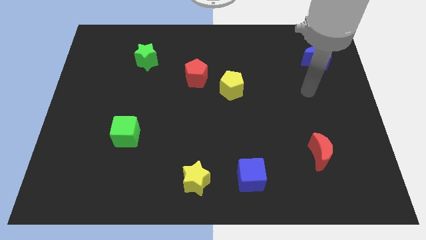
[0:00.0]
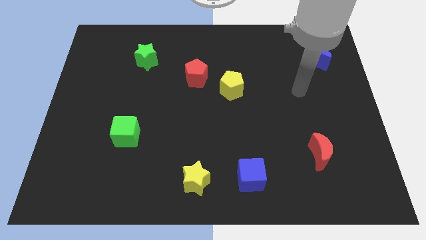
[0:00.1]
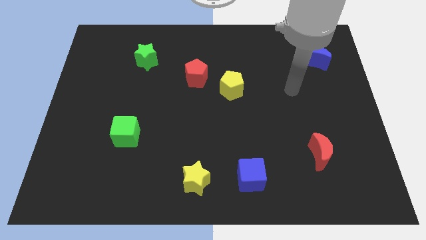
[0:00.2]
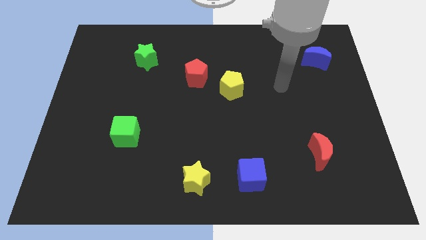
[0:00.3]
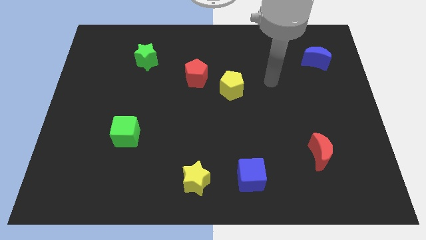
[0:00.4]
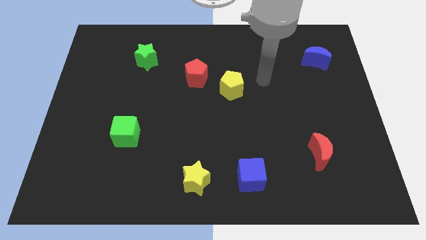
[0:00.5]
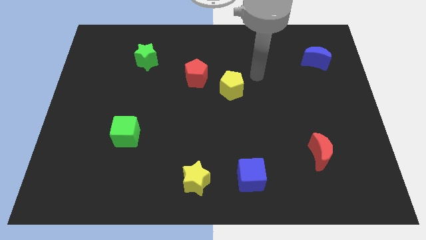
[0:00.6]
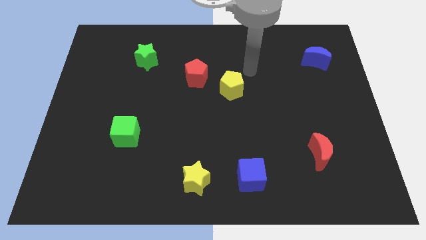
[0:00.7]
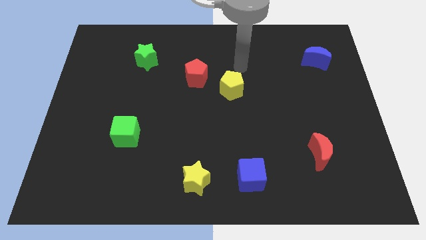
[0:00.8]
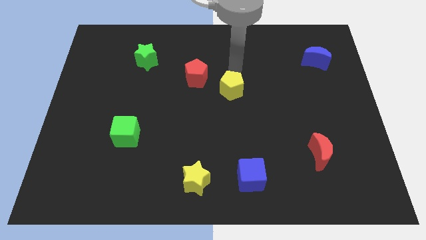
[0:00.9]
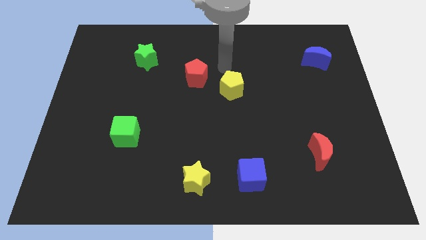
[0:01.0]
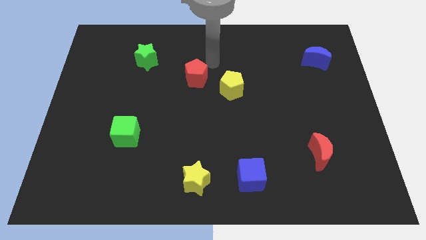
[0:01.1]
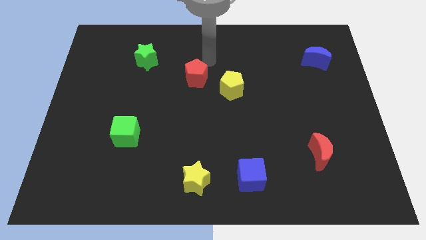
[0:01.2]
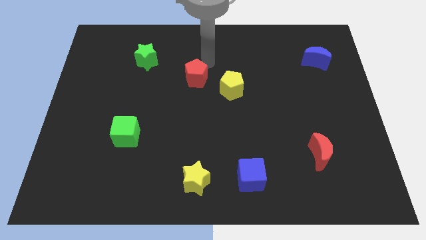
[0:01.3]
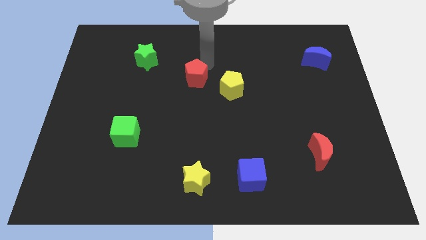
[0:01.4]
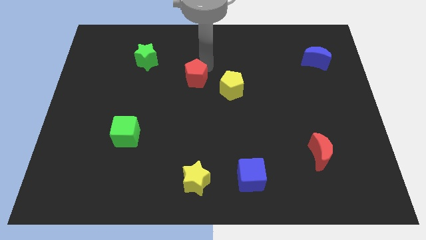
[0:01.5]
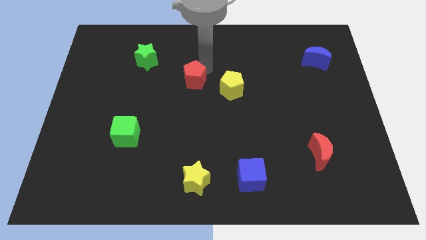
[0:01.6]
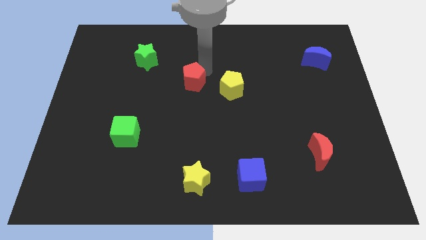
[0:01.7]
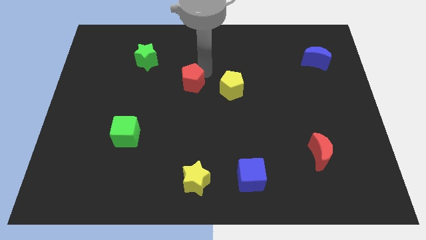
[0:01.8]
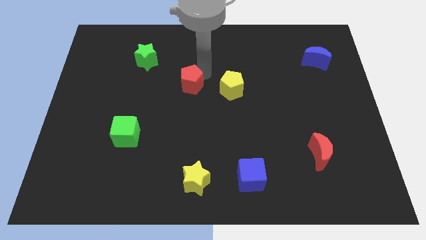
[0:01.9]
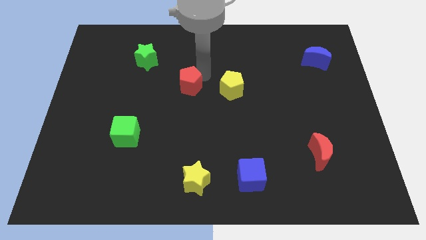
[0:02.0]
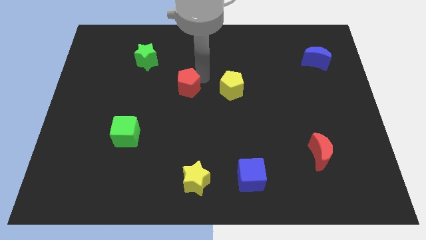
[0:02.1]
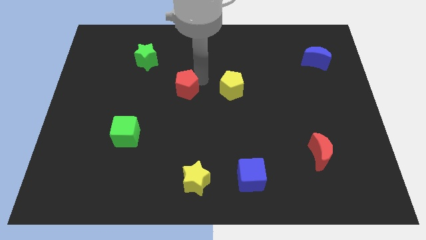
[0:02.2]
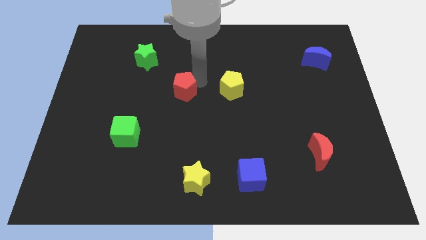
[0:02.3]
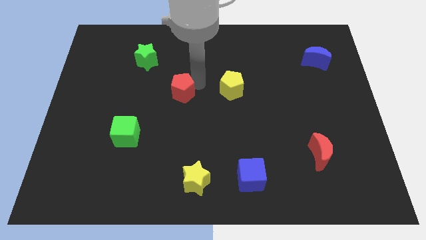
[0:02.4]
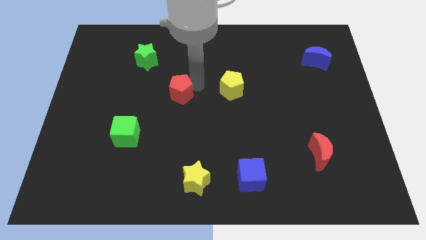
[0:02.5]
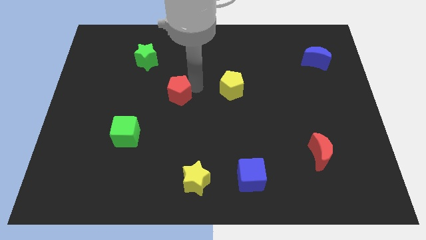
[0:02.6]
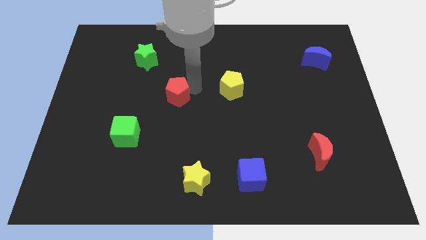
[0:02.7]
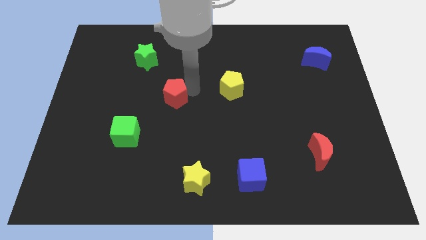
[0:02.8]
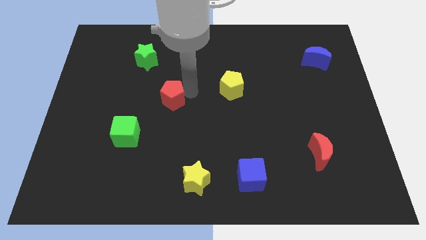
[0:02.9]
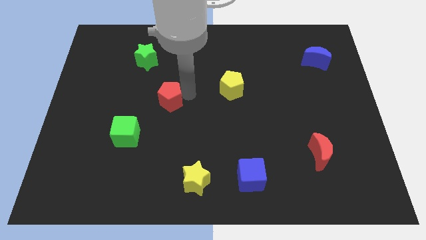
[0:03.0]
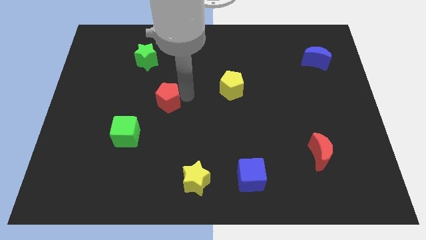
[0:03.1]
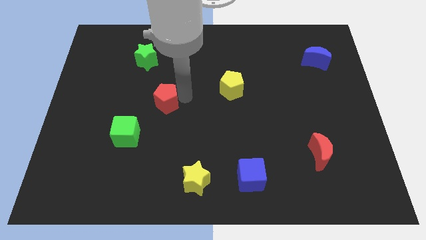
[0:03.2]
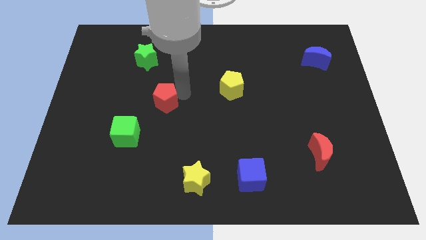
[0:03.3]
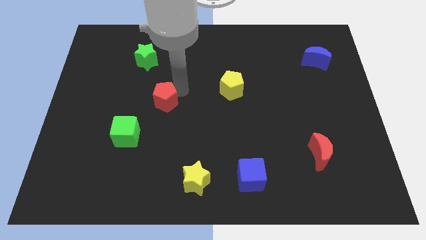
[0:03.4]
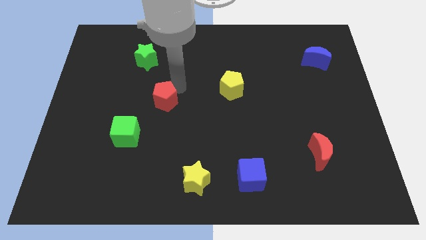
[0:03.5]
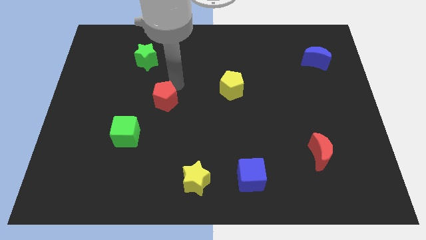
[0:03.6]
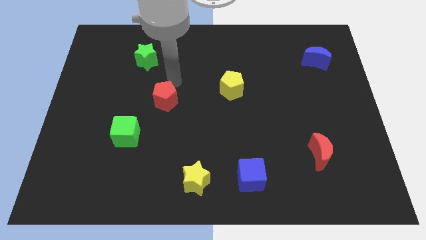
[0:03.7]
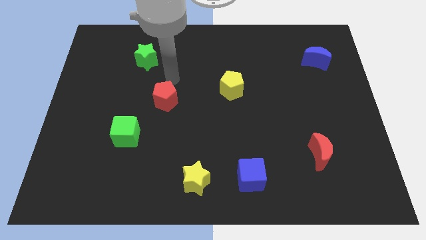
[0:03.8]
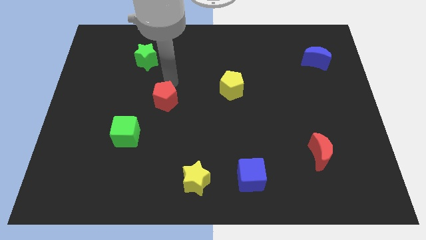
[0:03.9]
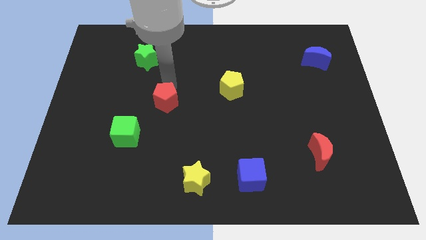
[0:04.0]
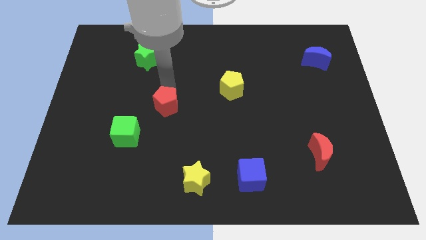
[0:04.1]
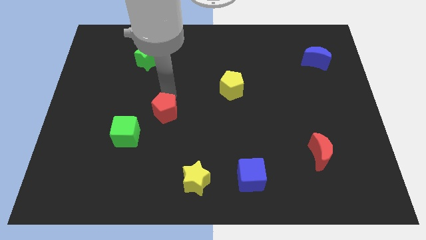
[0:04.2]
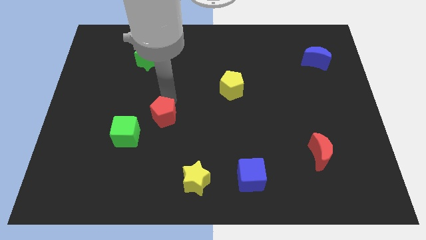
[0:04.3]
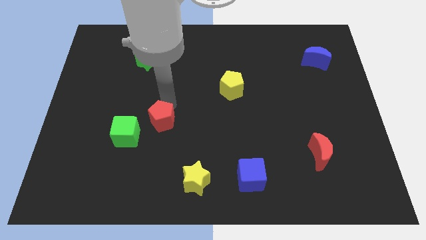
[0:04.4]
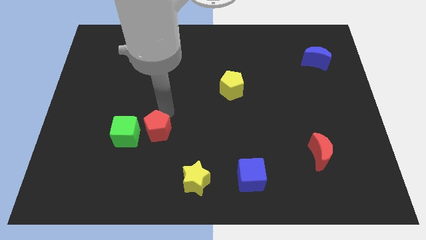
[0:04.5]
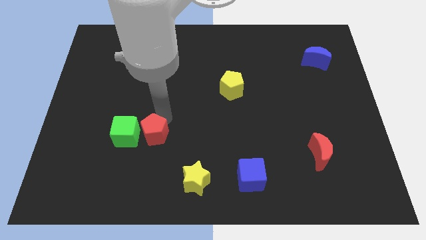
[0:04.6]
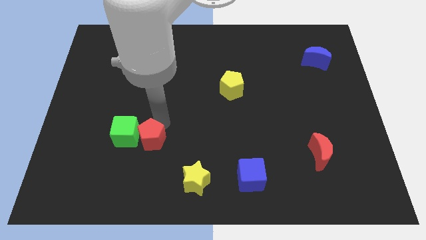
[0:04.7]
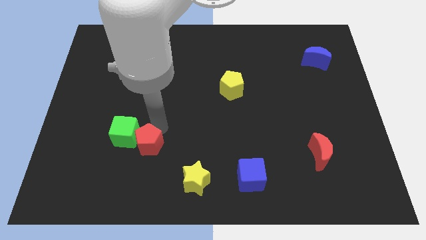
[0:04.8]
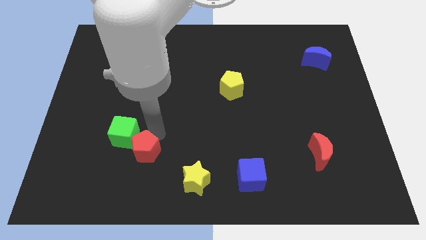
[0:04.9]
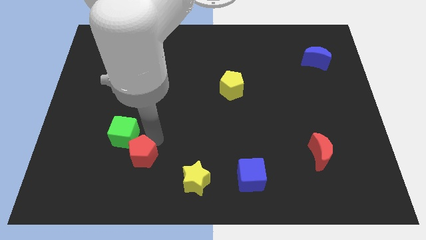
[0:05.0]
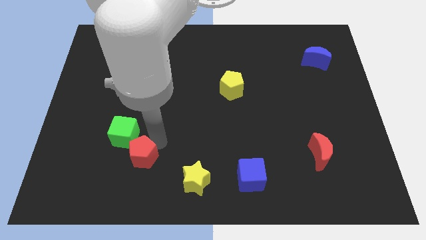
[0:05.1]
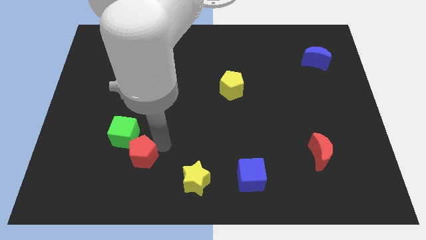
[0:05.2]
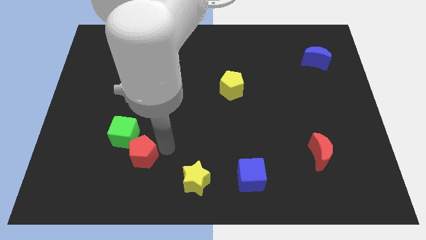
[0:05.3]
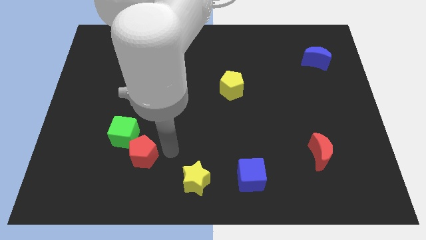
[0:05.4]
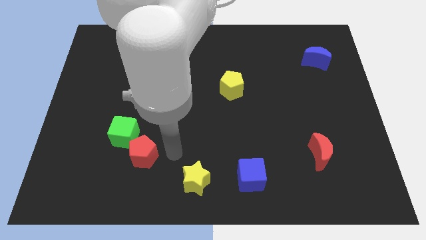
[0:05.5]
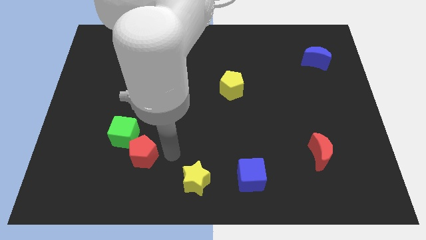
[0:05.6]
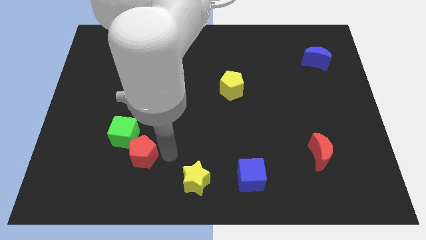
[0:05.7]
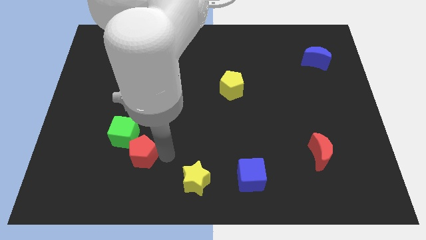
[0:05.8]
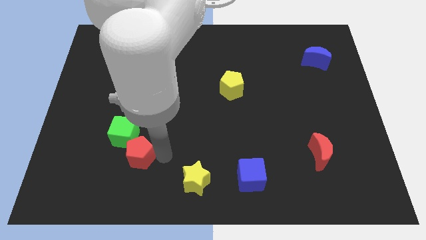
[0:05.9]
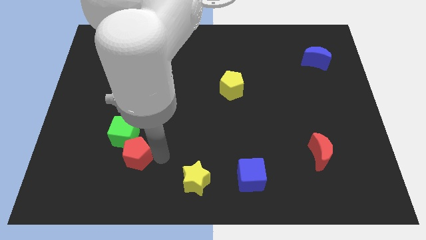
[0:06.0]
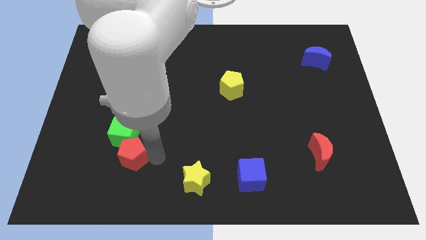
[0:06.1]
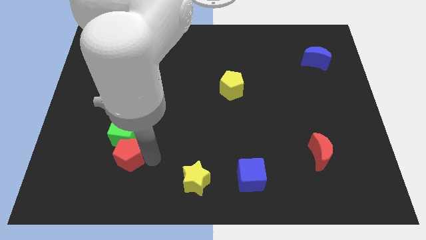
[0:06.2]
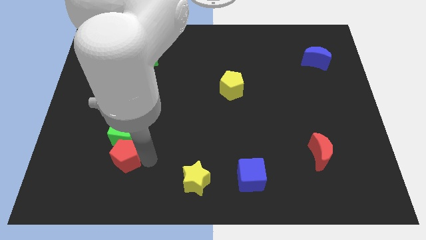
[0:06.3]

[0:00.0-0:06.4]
put the red pentagon diagonally down and to the left of the green cube
